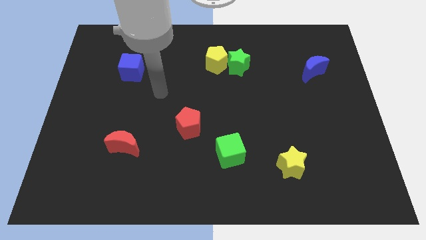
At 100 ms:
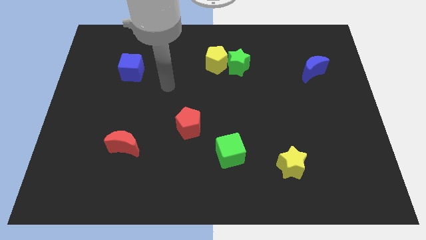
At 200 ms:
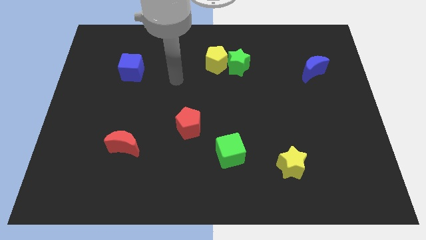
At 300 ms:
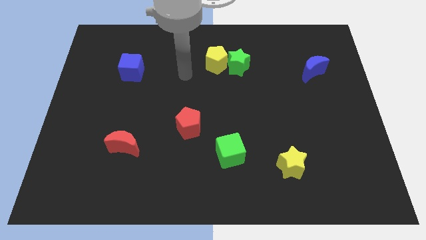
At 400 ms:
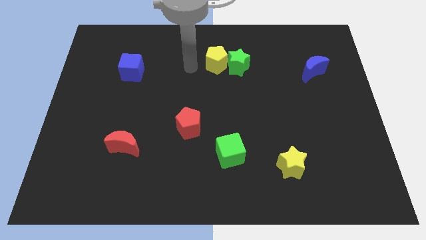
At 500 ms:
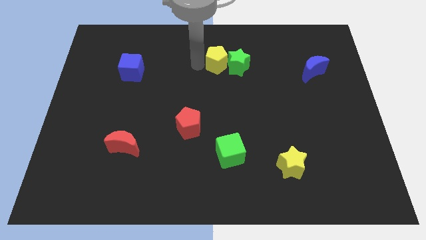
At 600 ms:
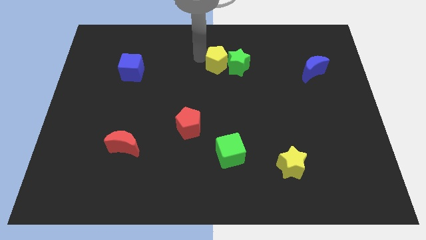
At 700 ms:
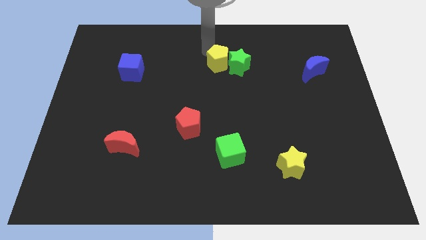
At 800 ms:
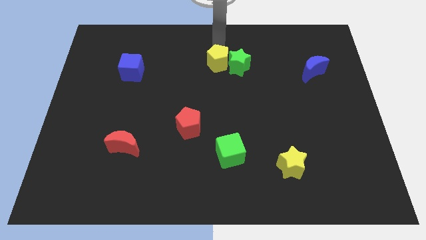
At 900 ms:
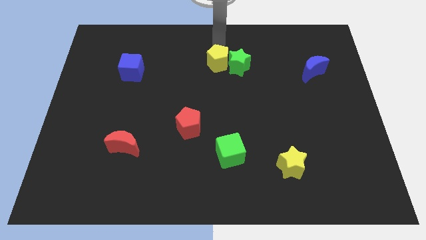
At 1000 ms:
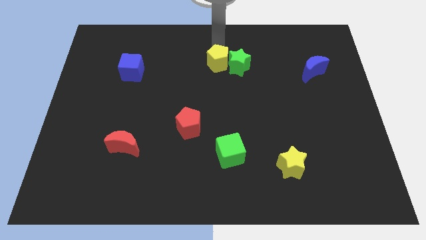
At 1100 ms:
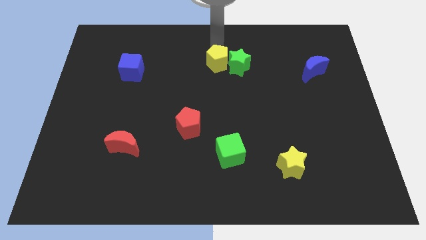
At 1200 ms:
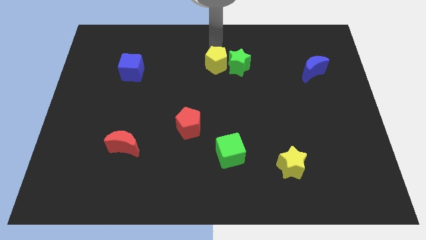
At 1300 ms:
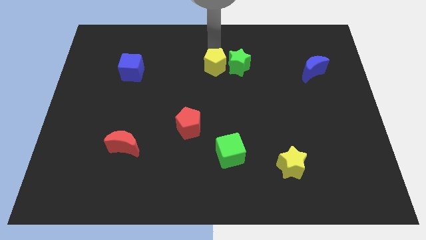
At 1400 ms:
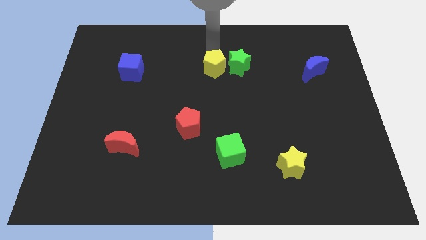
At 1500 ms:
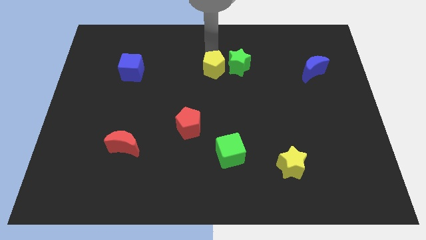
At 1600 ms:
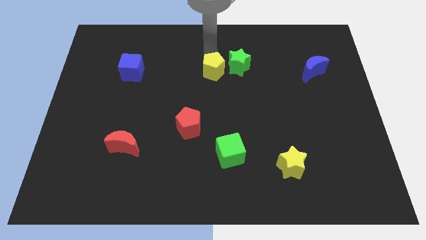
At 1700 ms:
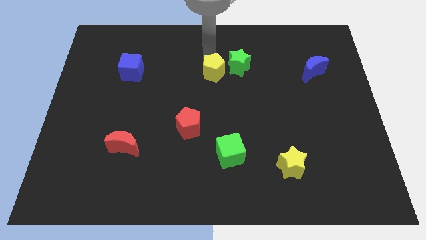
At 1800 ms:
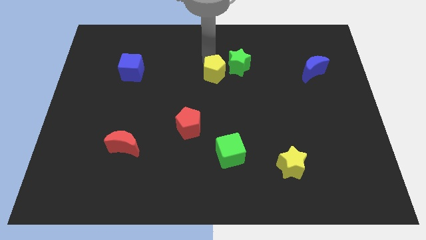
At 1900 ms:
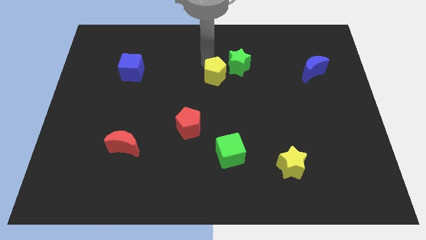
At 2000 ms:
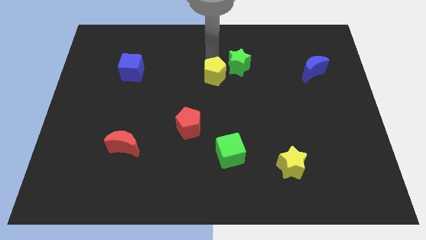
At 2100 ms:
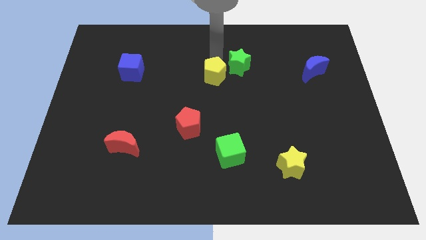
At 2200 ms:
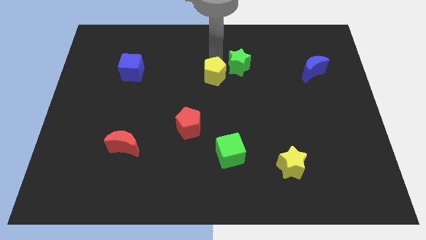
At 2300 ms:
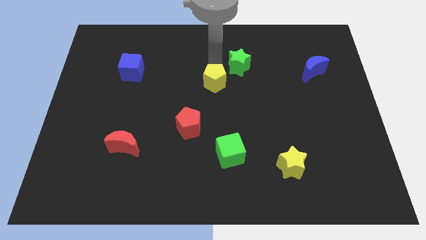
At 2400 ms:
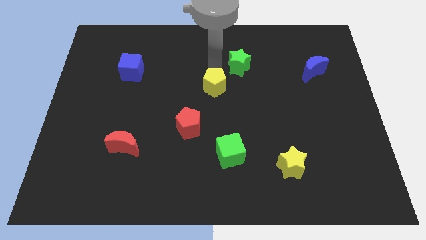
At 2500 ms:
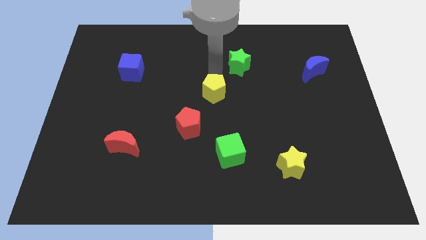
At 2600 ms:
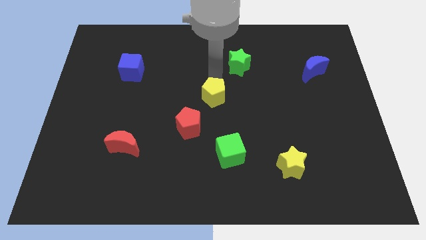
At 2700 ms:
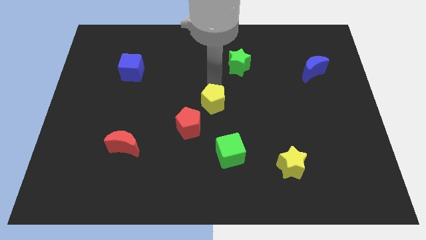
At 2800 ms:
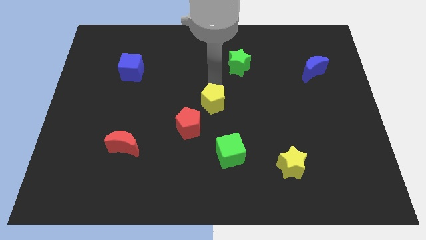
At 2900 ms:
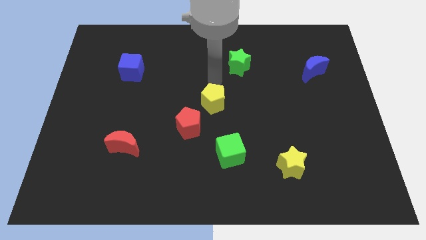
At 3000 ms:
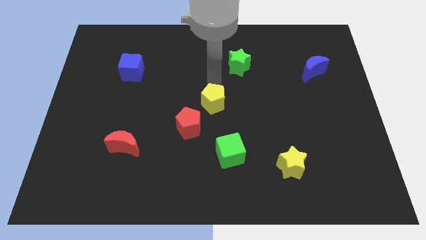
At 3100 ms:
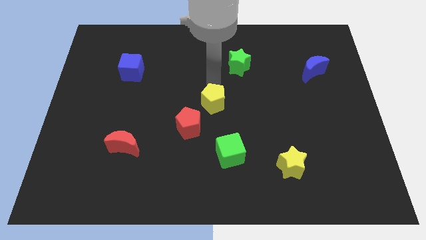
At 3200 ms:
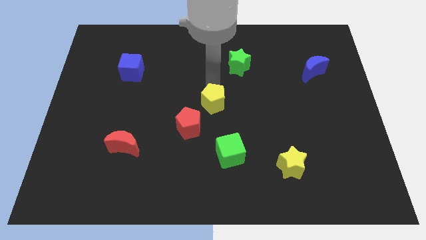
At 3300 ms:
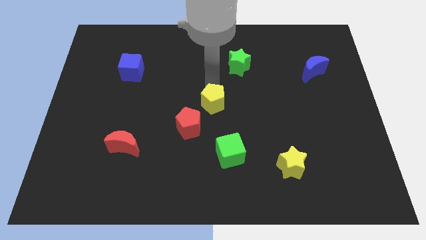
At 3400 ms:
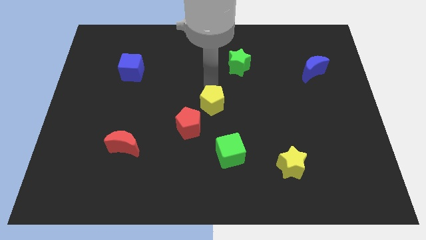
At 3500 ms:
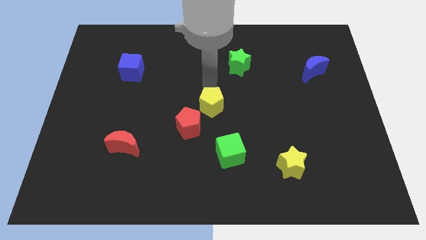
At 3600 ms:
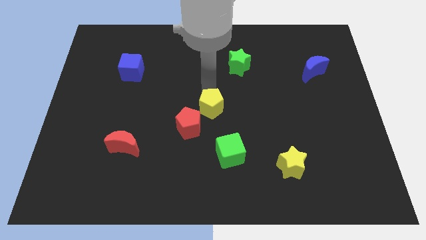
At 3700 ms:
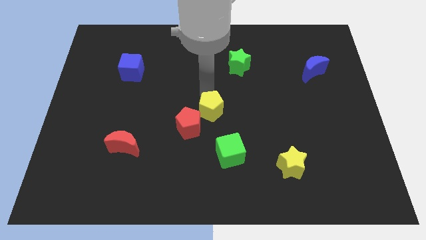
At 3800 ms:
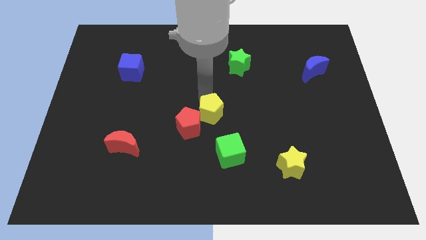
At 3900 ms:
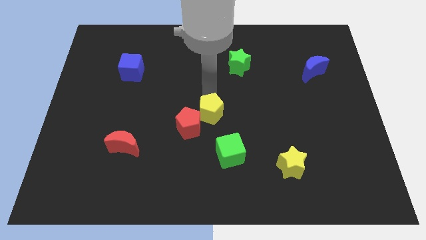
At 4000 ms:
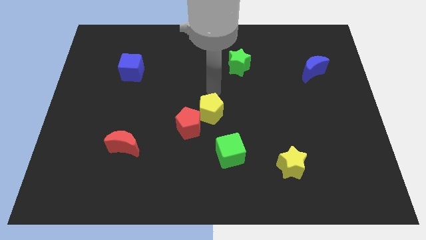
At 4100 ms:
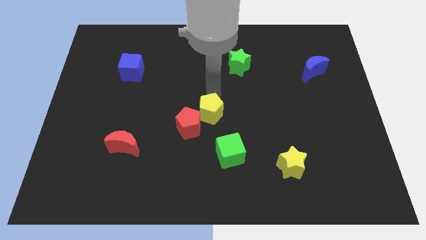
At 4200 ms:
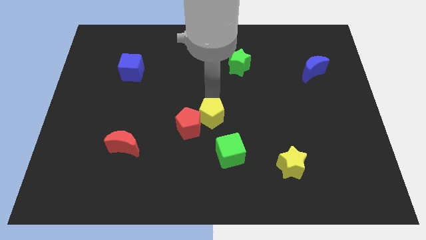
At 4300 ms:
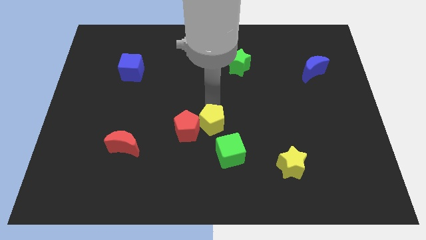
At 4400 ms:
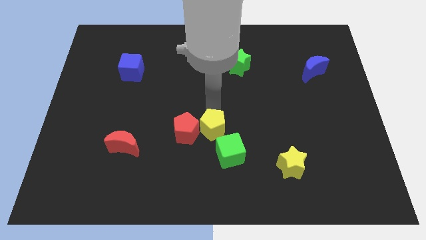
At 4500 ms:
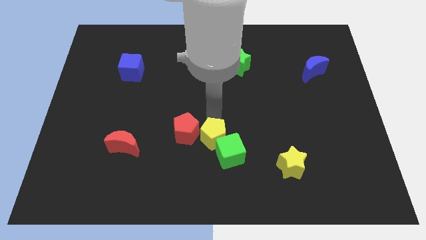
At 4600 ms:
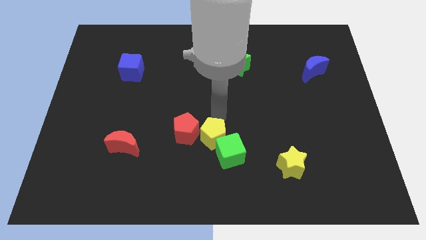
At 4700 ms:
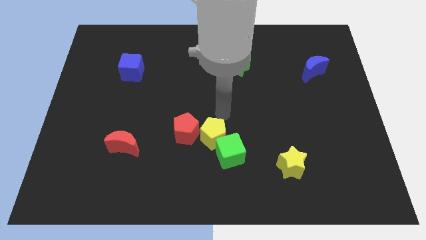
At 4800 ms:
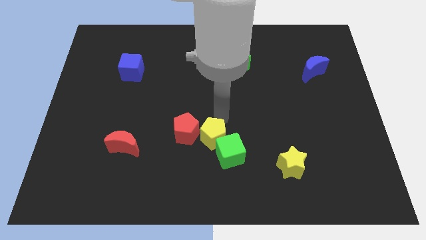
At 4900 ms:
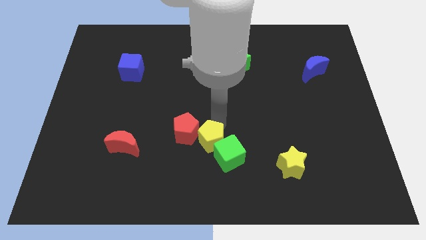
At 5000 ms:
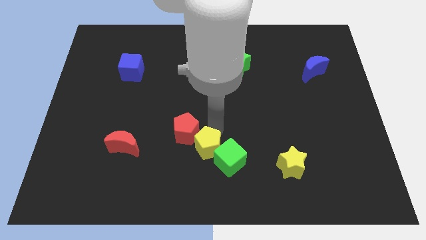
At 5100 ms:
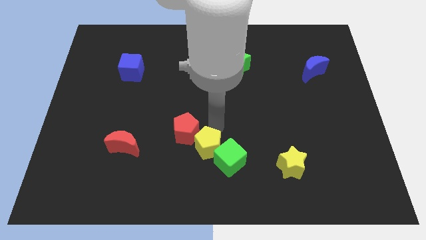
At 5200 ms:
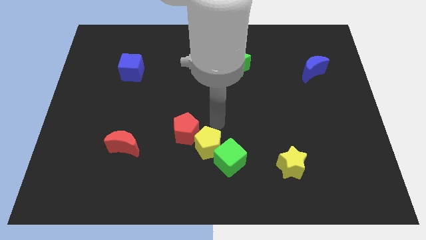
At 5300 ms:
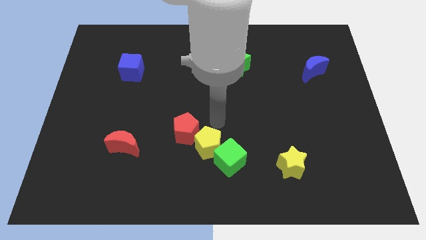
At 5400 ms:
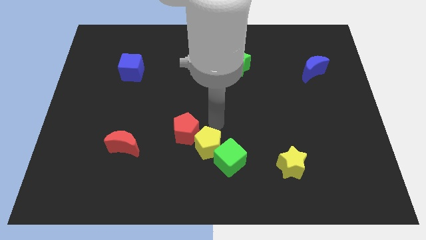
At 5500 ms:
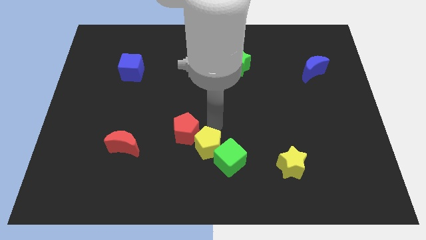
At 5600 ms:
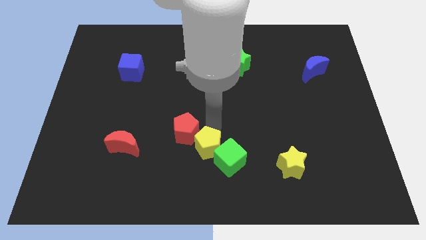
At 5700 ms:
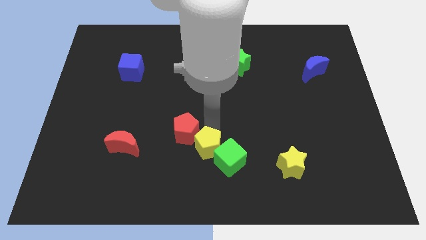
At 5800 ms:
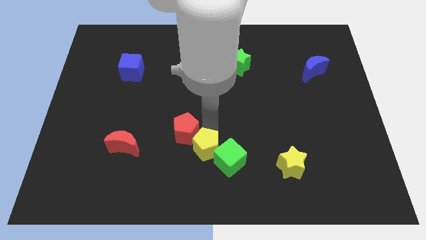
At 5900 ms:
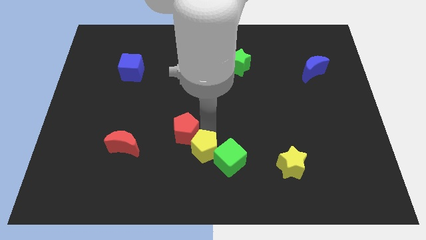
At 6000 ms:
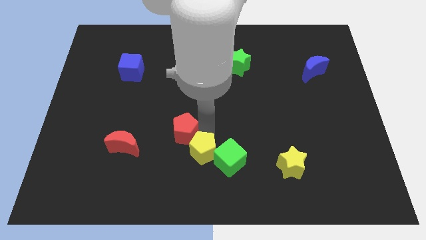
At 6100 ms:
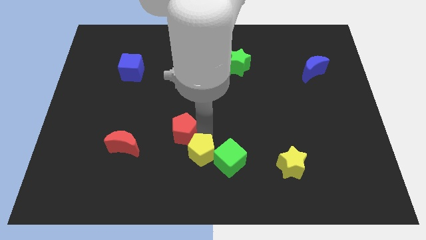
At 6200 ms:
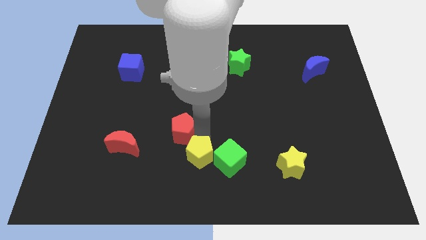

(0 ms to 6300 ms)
put the yellow pentagon to the bottom side
